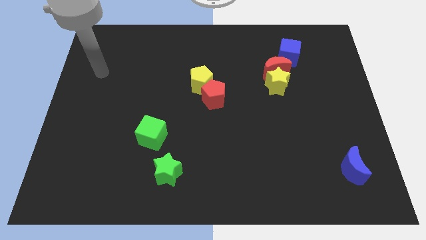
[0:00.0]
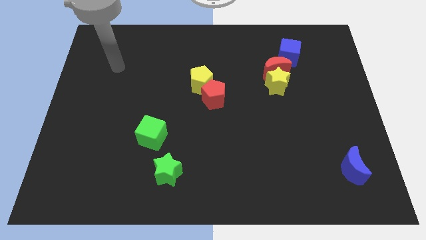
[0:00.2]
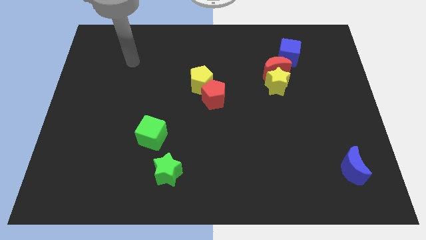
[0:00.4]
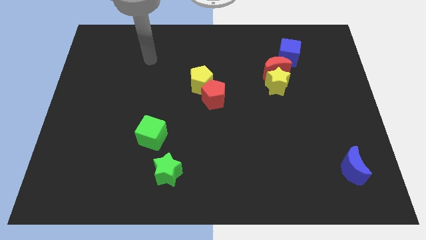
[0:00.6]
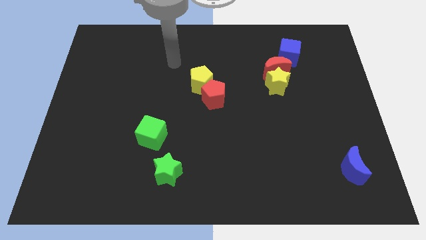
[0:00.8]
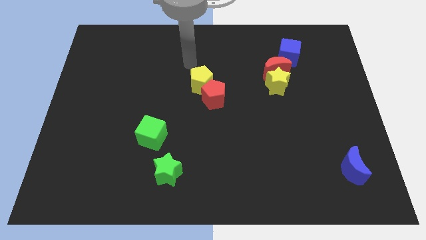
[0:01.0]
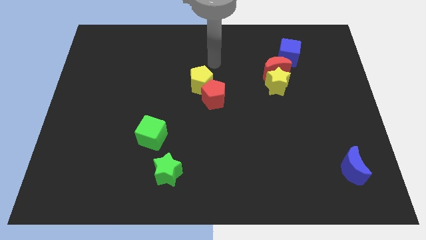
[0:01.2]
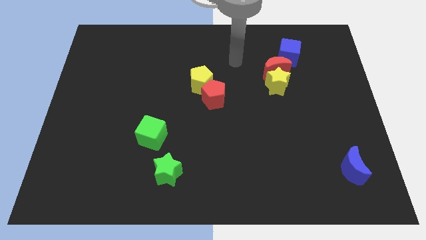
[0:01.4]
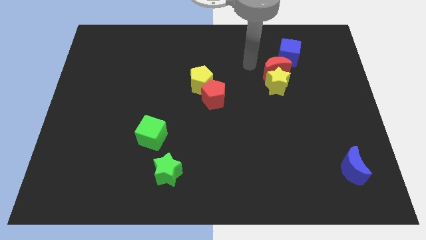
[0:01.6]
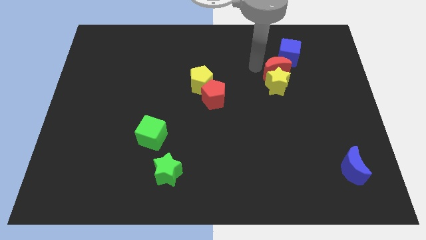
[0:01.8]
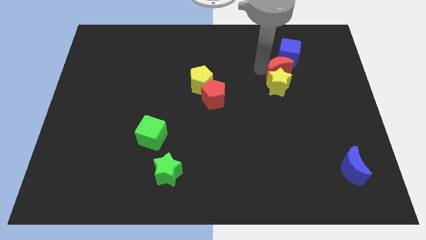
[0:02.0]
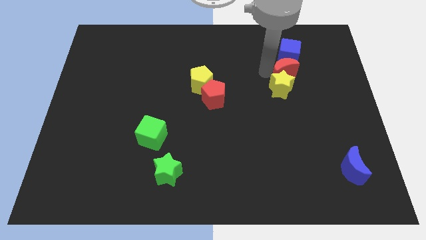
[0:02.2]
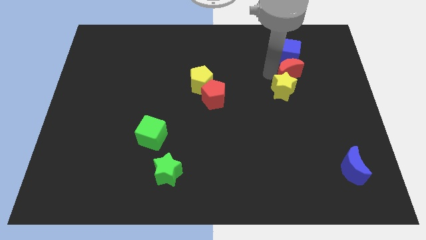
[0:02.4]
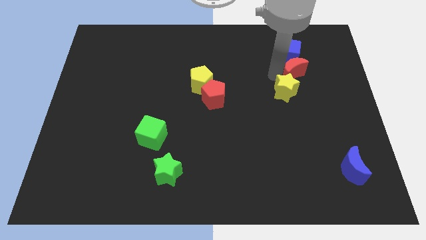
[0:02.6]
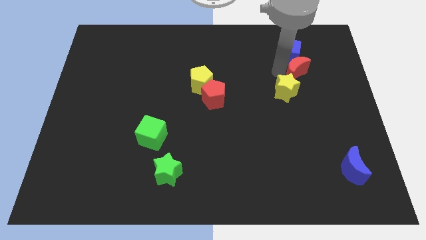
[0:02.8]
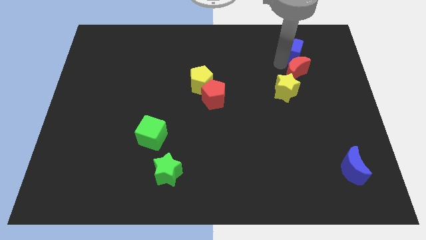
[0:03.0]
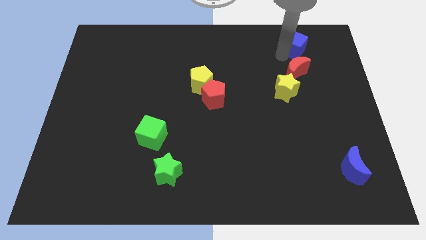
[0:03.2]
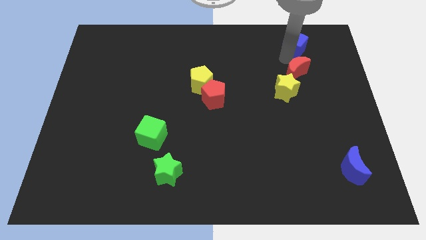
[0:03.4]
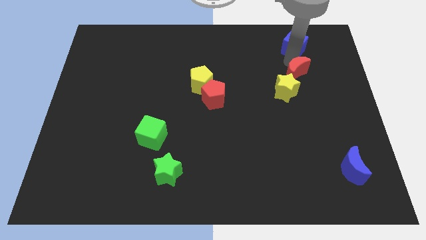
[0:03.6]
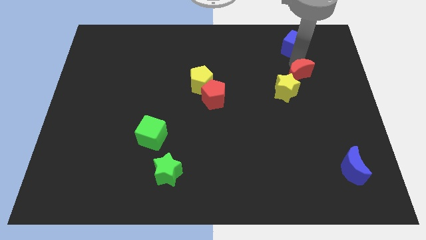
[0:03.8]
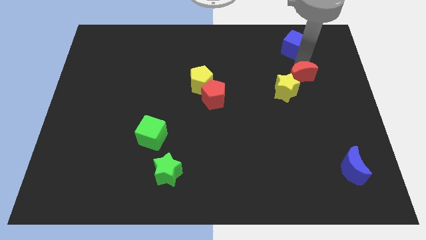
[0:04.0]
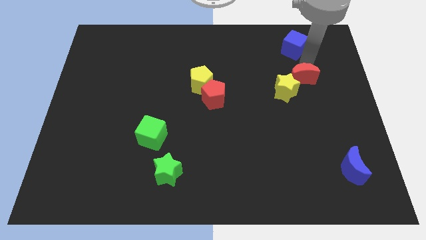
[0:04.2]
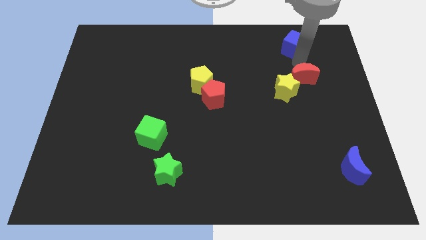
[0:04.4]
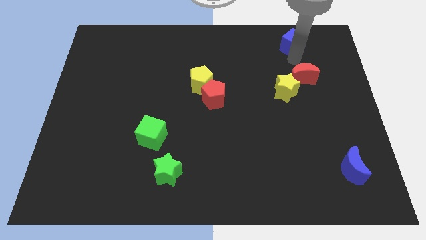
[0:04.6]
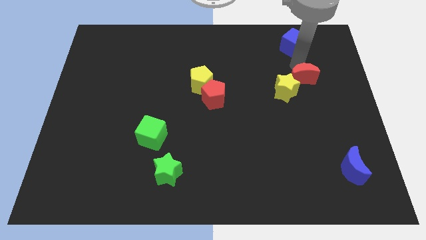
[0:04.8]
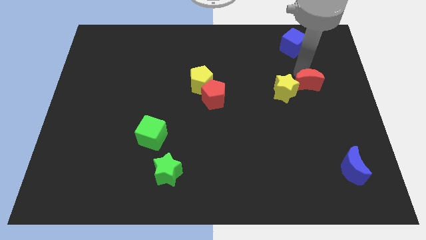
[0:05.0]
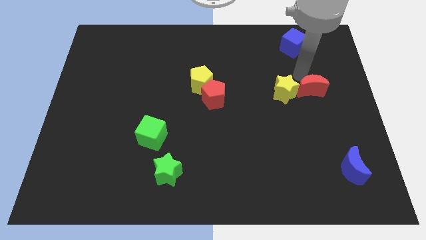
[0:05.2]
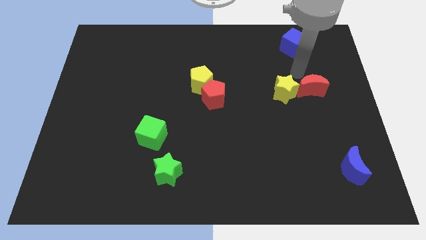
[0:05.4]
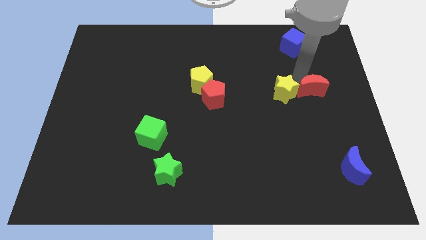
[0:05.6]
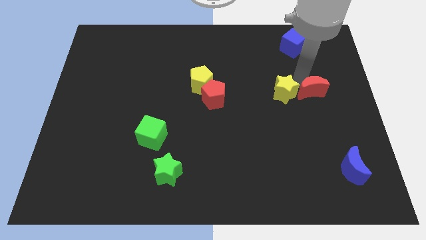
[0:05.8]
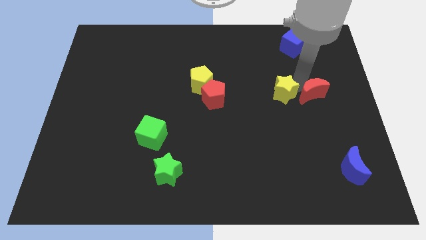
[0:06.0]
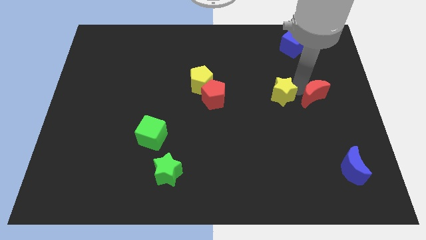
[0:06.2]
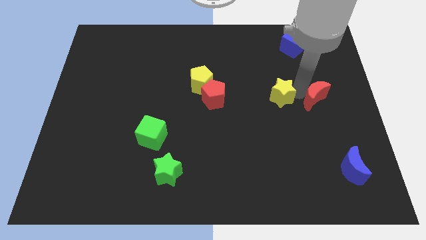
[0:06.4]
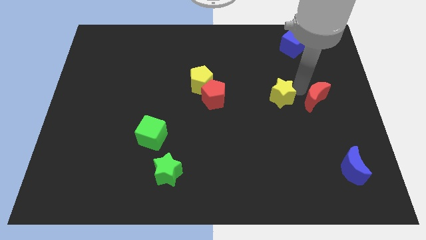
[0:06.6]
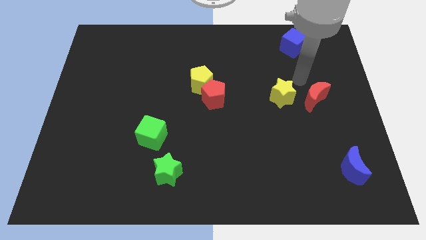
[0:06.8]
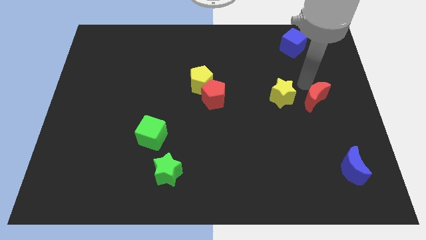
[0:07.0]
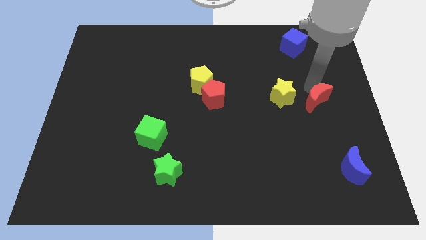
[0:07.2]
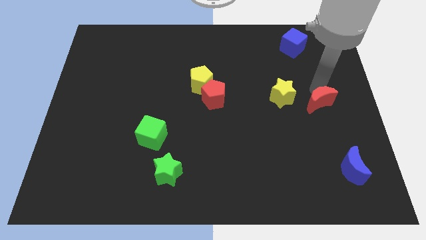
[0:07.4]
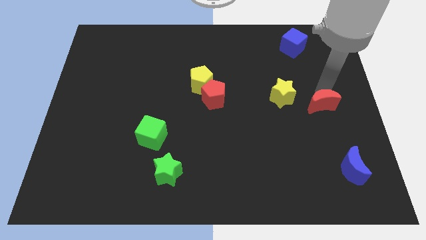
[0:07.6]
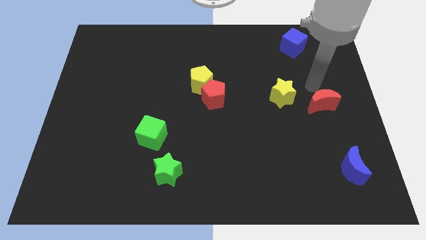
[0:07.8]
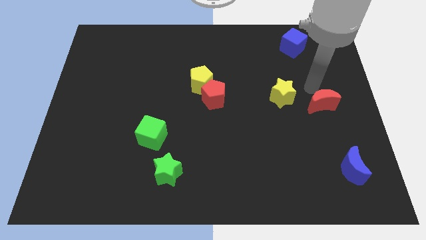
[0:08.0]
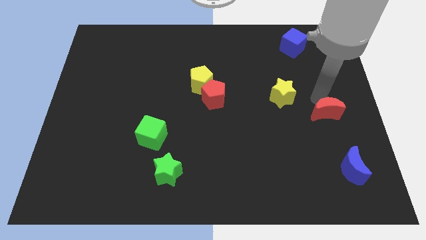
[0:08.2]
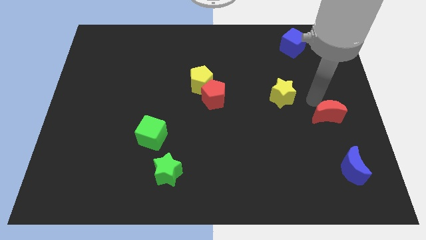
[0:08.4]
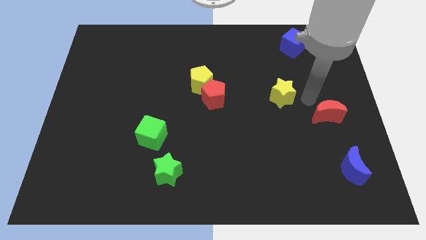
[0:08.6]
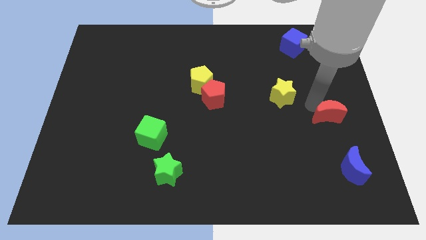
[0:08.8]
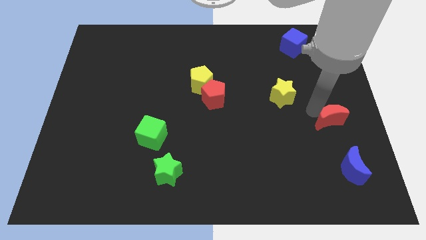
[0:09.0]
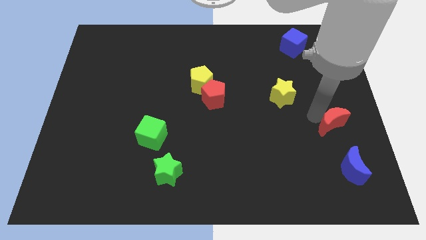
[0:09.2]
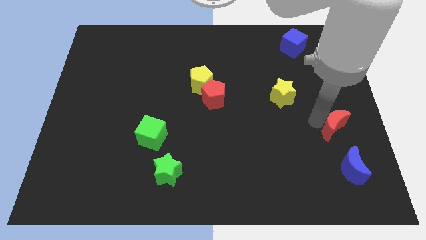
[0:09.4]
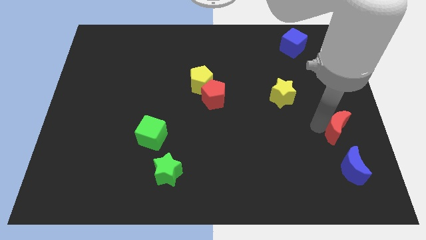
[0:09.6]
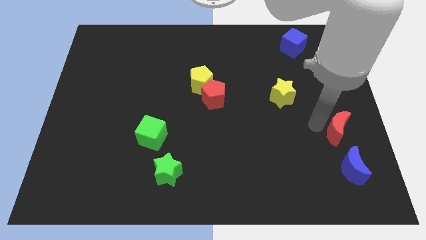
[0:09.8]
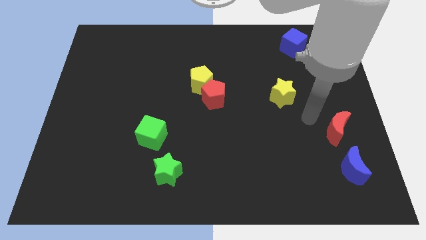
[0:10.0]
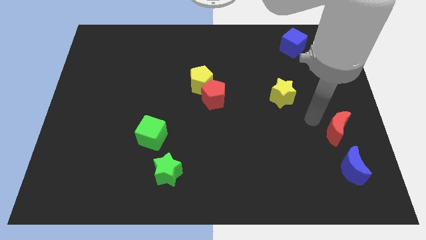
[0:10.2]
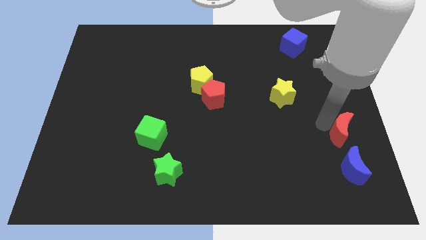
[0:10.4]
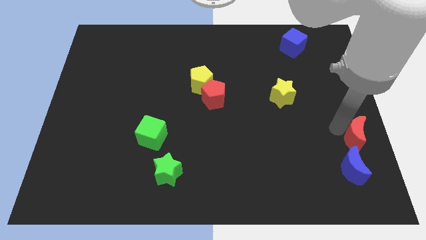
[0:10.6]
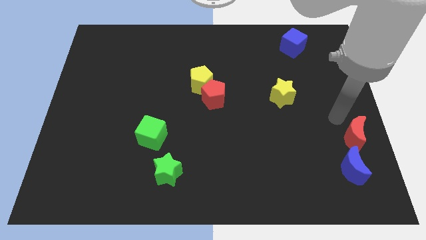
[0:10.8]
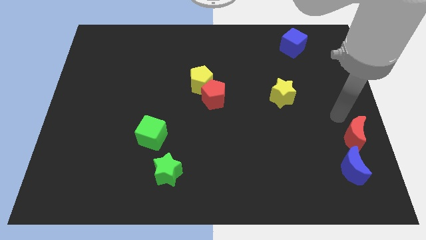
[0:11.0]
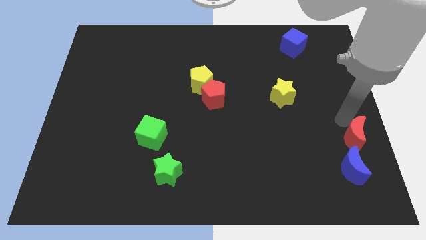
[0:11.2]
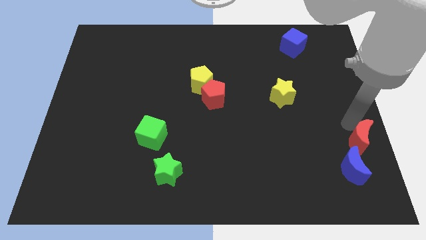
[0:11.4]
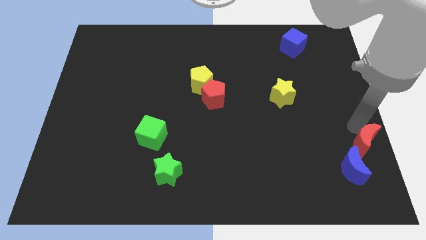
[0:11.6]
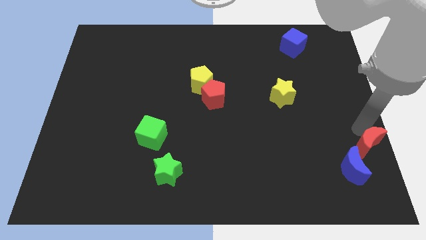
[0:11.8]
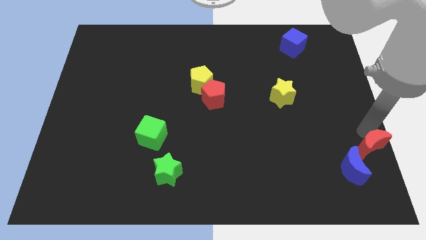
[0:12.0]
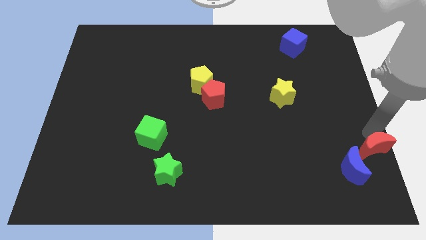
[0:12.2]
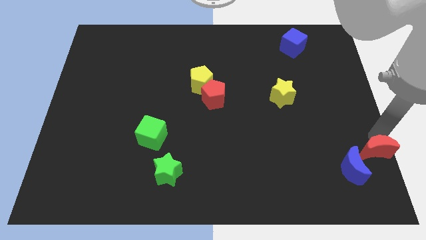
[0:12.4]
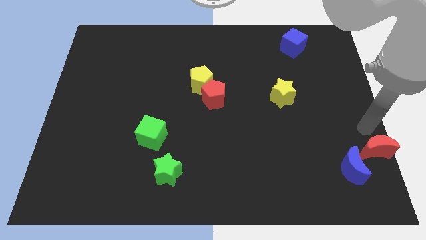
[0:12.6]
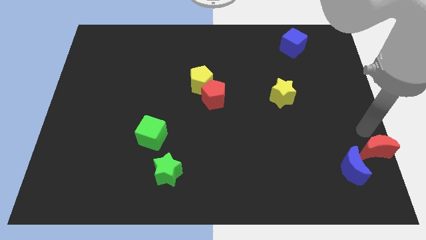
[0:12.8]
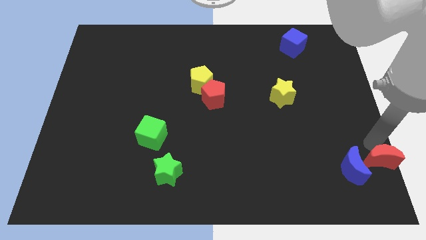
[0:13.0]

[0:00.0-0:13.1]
move the red moon to the bottom right of the board
